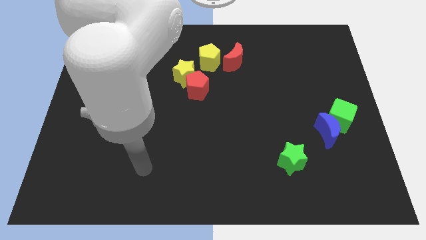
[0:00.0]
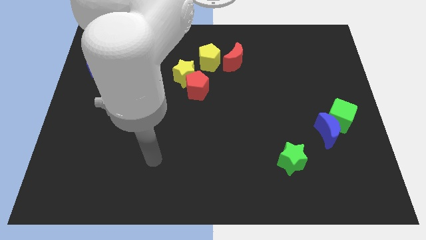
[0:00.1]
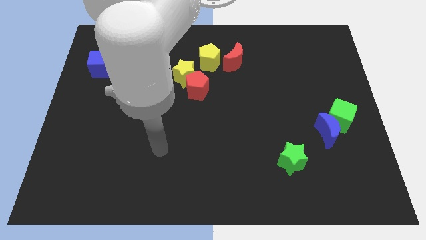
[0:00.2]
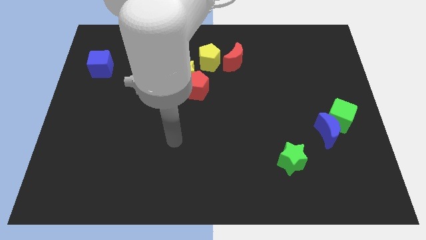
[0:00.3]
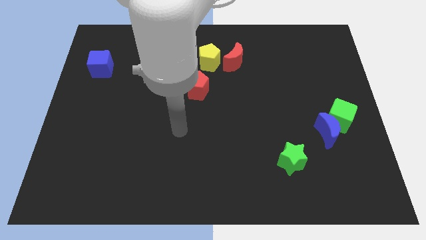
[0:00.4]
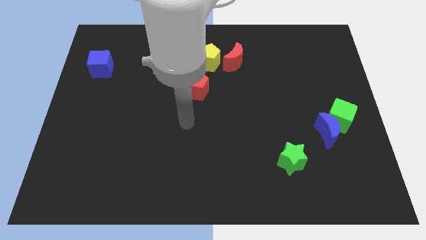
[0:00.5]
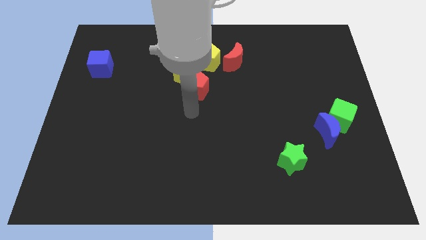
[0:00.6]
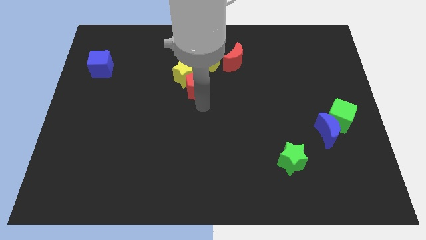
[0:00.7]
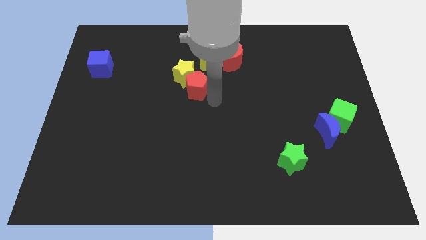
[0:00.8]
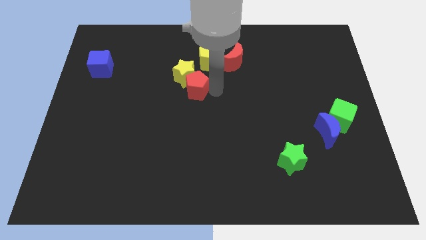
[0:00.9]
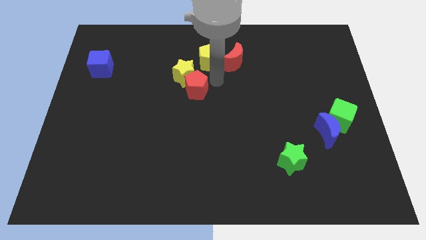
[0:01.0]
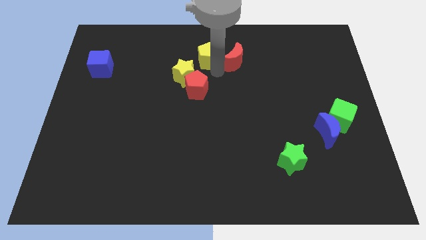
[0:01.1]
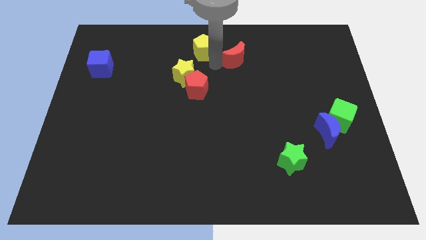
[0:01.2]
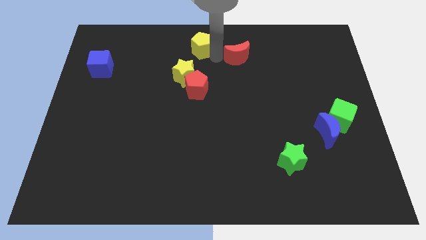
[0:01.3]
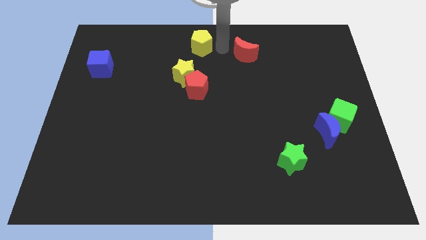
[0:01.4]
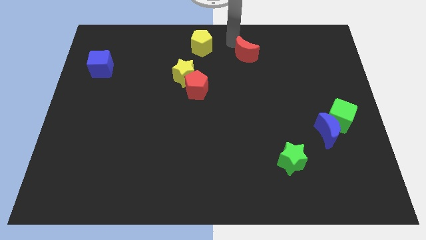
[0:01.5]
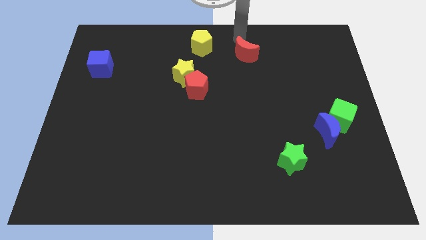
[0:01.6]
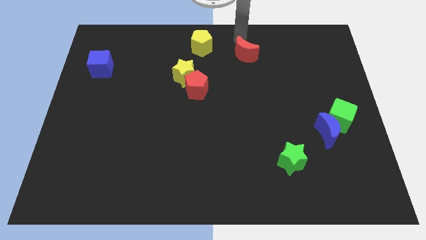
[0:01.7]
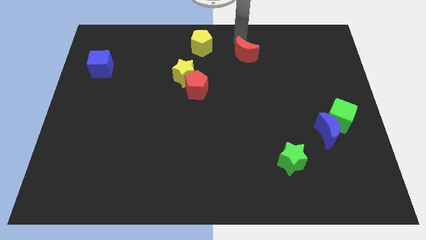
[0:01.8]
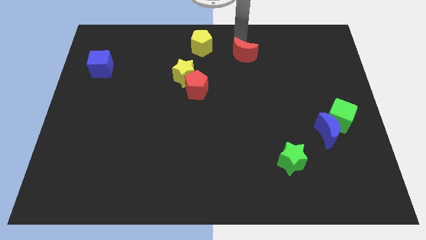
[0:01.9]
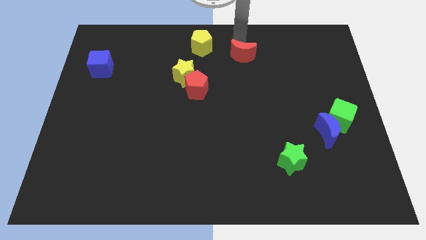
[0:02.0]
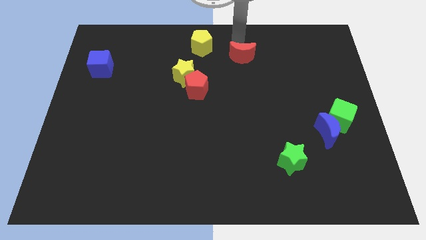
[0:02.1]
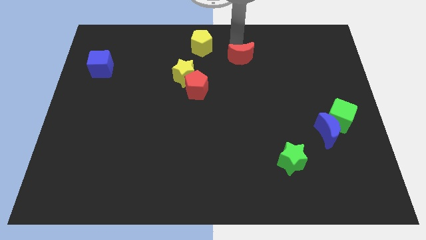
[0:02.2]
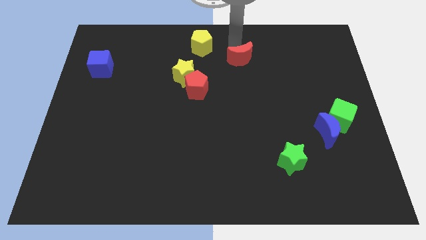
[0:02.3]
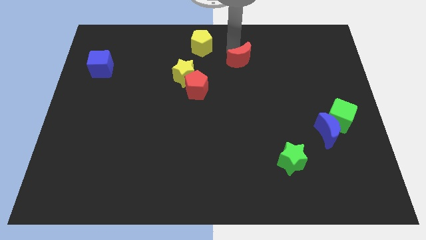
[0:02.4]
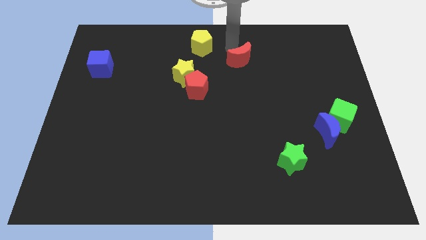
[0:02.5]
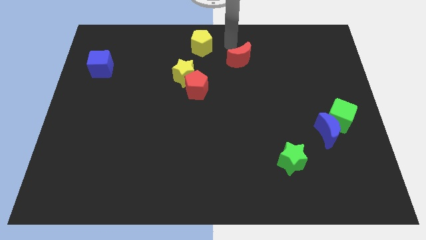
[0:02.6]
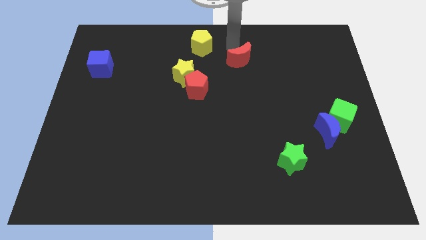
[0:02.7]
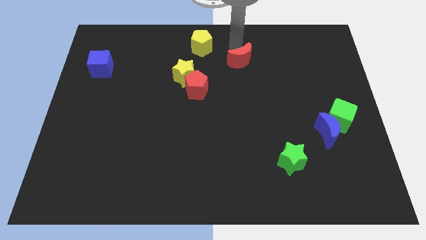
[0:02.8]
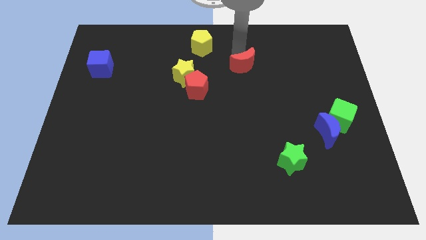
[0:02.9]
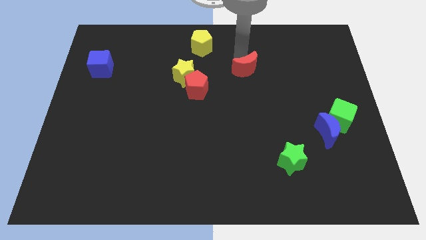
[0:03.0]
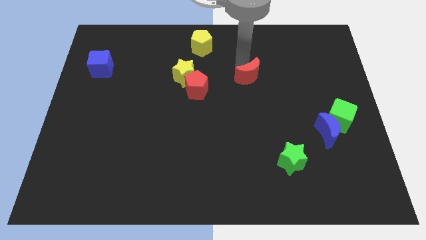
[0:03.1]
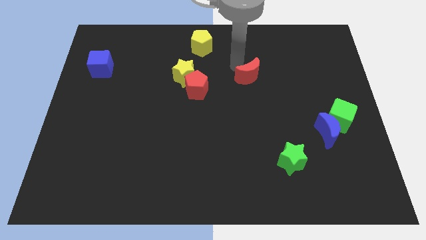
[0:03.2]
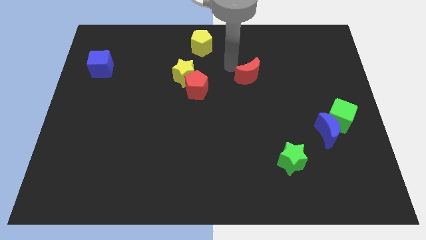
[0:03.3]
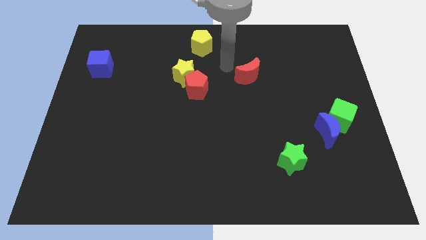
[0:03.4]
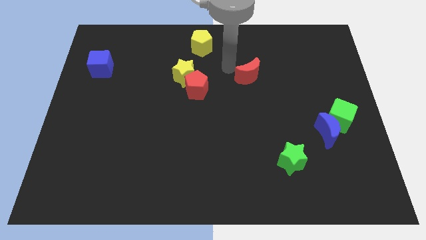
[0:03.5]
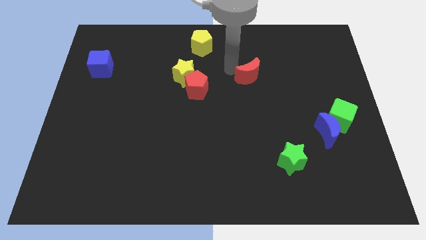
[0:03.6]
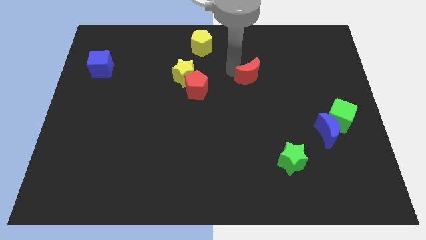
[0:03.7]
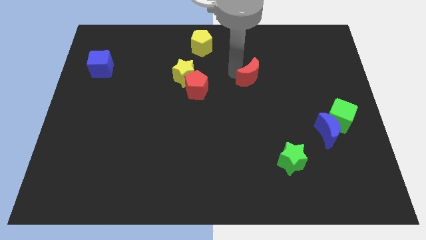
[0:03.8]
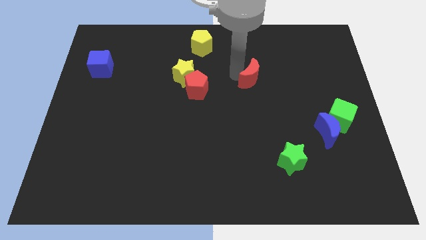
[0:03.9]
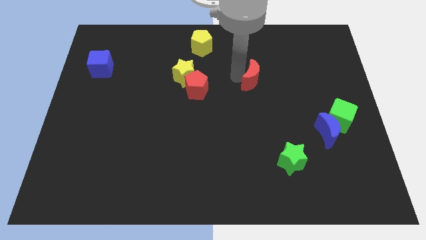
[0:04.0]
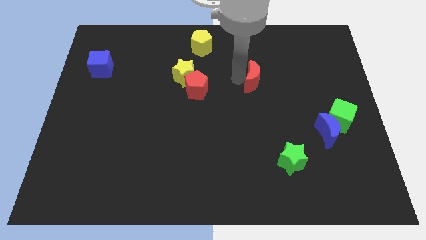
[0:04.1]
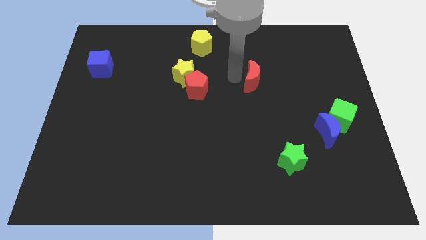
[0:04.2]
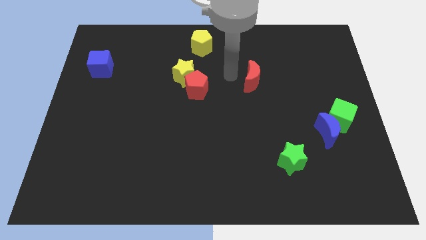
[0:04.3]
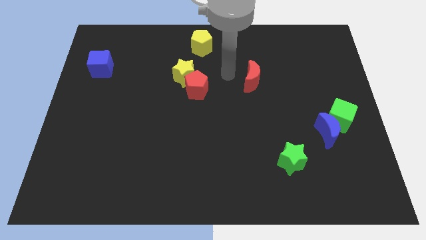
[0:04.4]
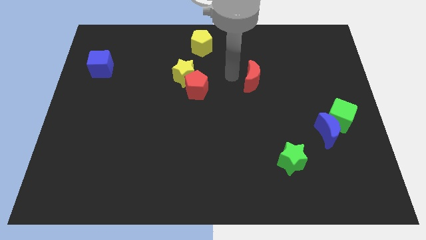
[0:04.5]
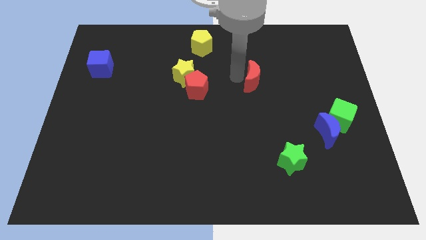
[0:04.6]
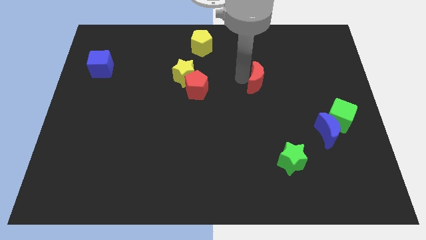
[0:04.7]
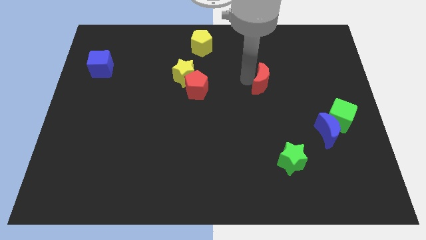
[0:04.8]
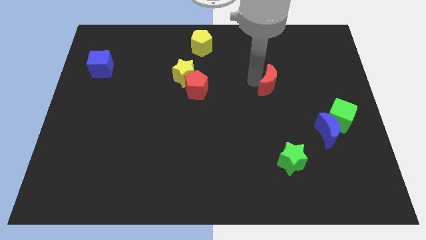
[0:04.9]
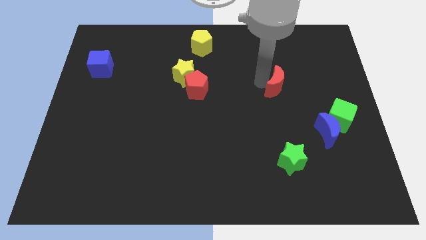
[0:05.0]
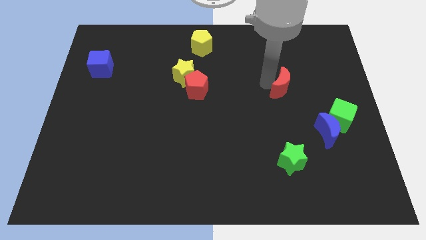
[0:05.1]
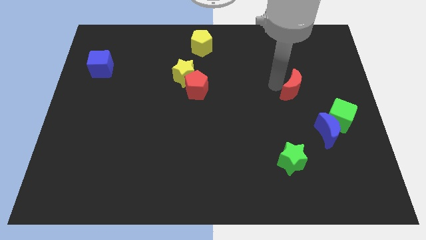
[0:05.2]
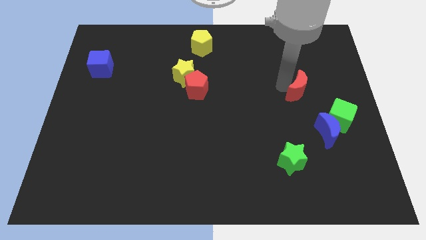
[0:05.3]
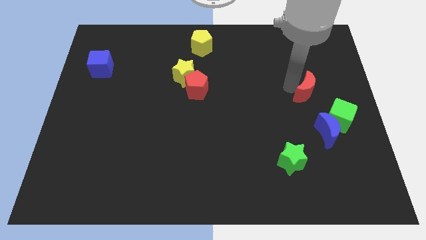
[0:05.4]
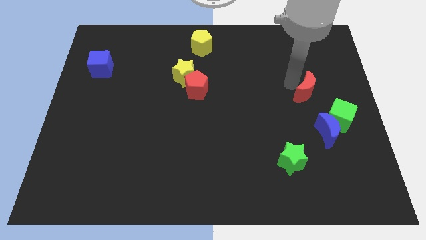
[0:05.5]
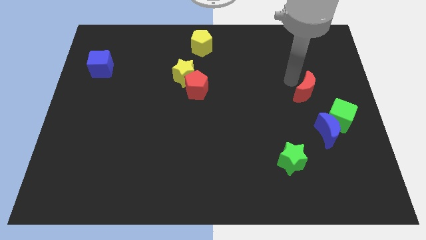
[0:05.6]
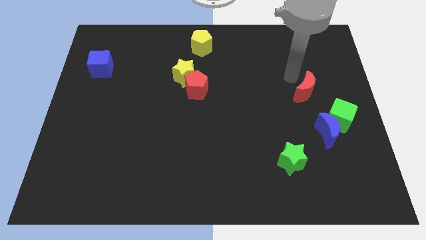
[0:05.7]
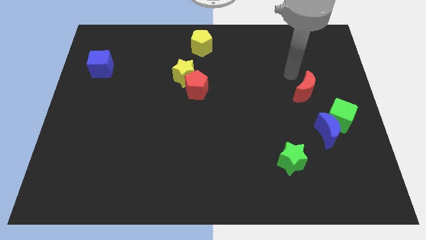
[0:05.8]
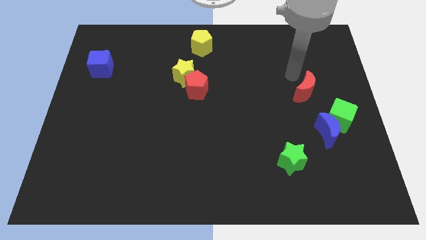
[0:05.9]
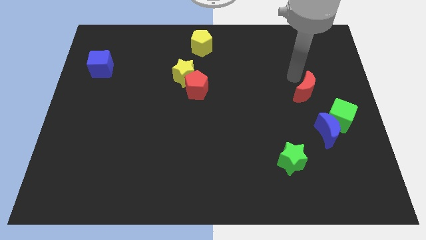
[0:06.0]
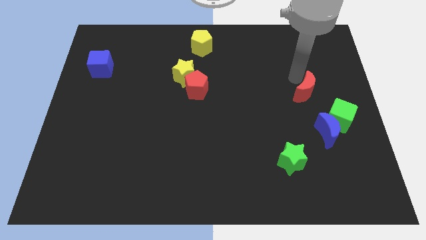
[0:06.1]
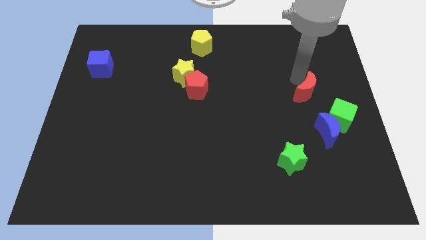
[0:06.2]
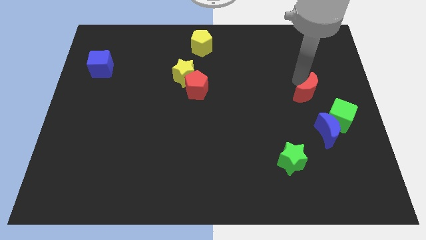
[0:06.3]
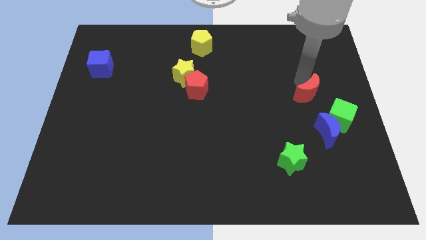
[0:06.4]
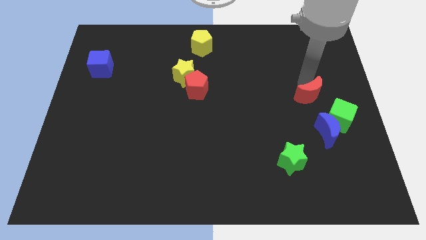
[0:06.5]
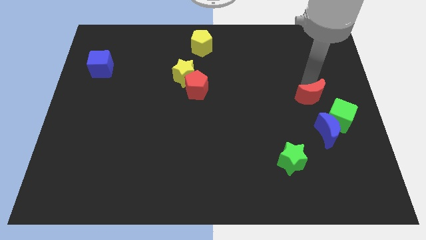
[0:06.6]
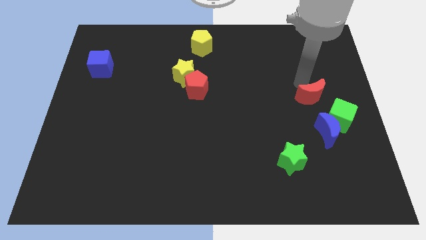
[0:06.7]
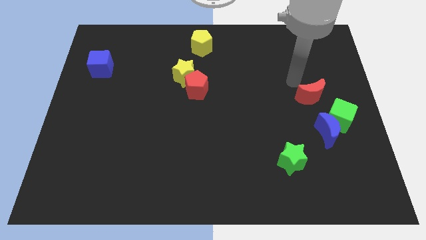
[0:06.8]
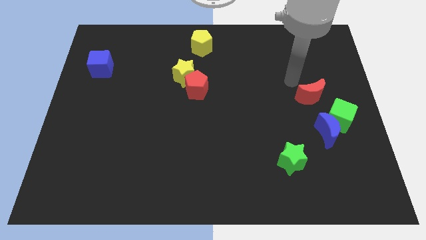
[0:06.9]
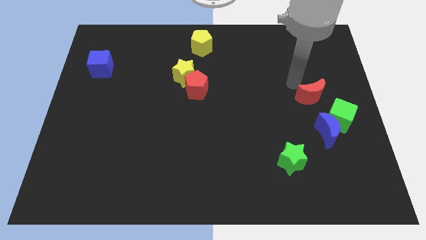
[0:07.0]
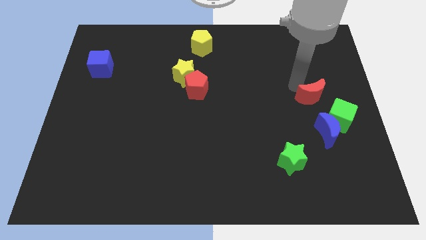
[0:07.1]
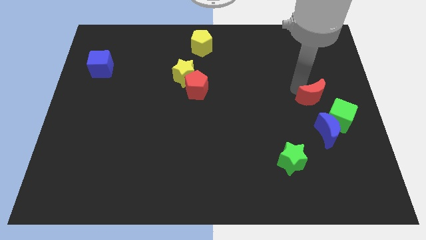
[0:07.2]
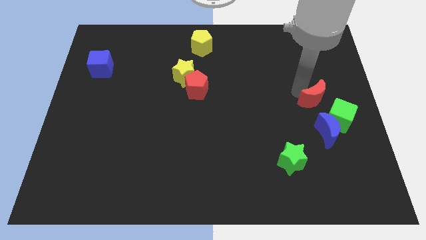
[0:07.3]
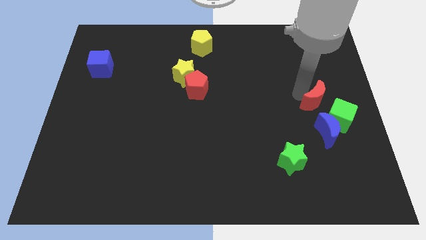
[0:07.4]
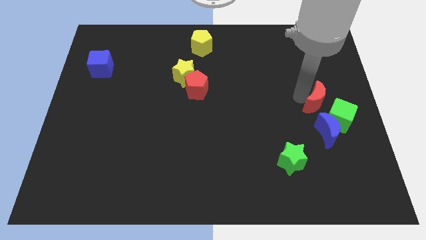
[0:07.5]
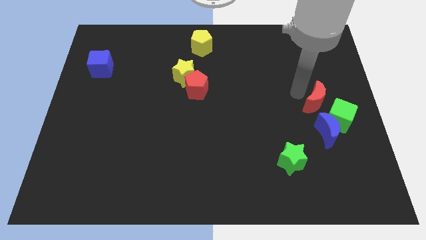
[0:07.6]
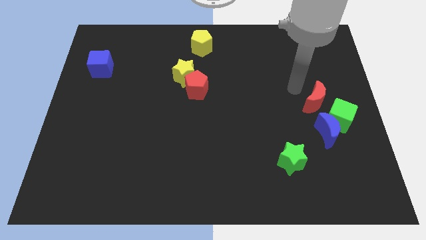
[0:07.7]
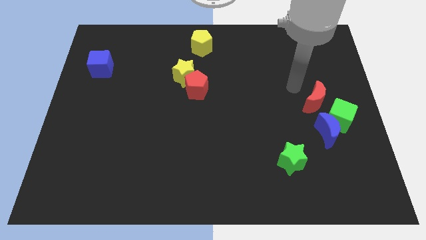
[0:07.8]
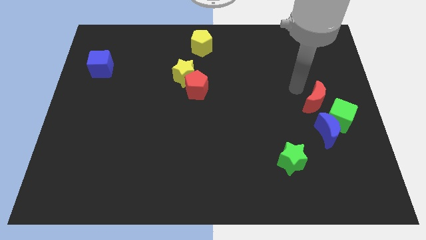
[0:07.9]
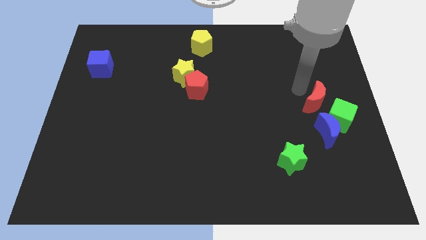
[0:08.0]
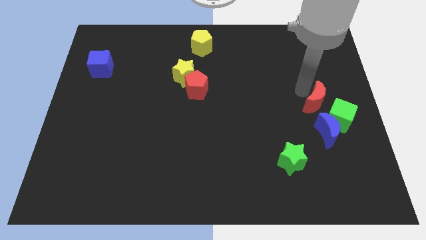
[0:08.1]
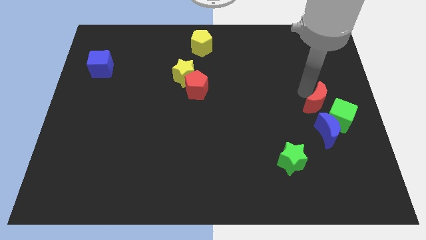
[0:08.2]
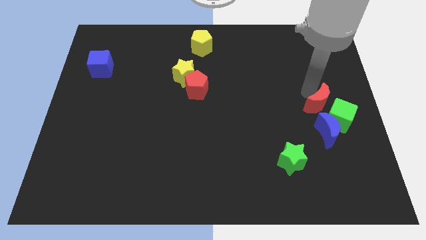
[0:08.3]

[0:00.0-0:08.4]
move the red moon towards the green cube
